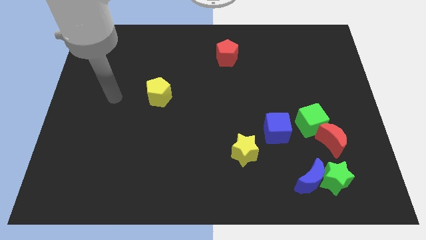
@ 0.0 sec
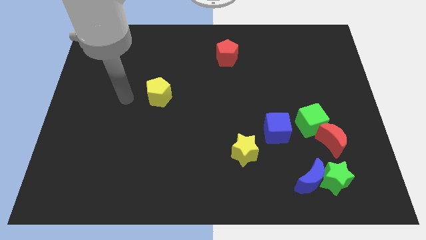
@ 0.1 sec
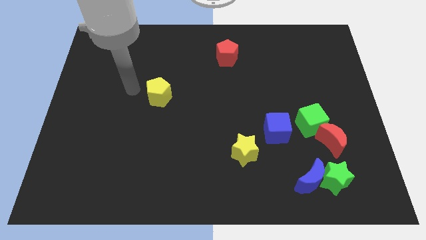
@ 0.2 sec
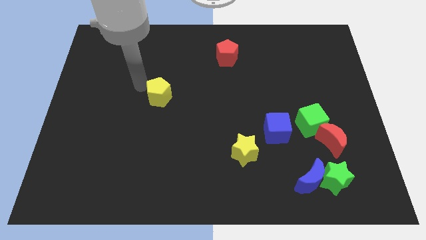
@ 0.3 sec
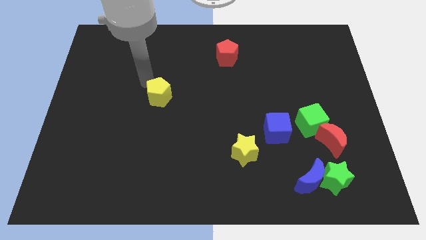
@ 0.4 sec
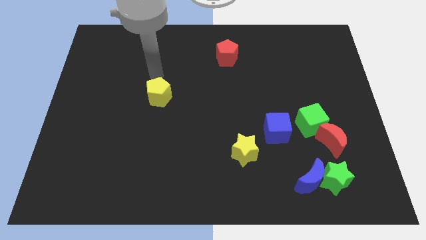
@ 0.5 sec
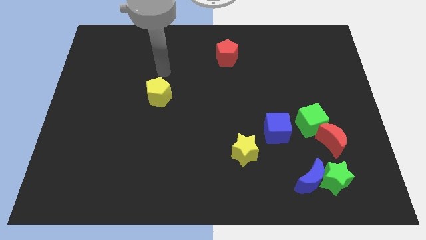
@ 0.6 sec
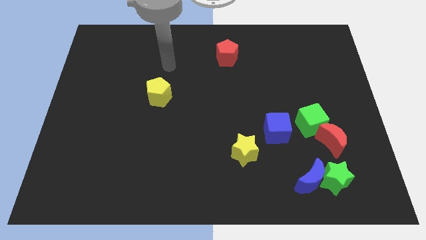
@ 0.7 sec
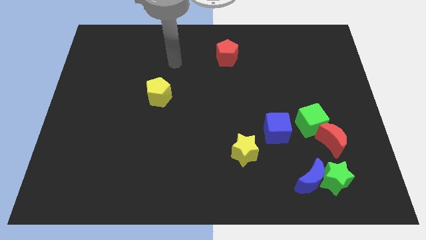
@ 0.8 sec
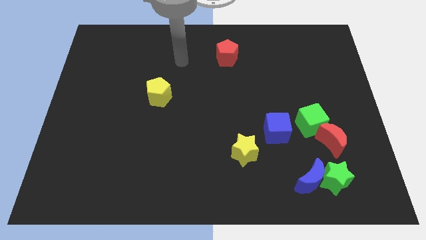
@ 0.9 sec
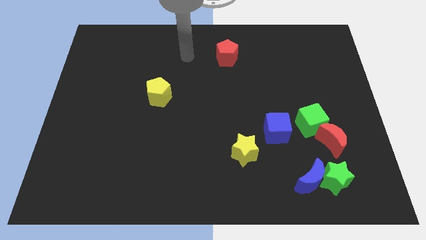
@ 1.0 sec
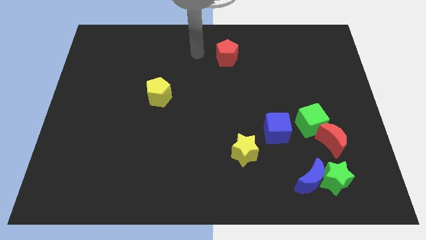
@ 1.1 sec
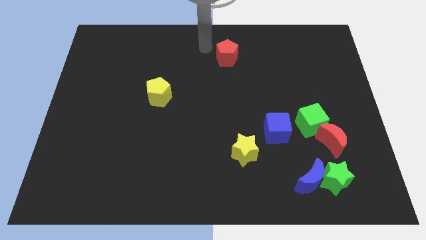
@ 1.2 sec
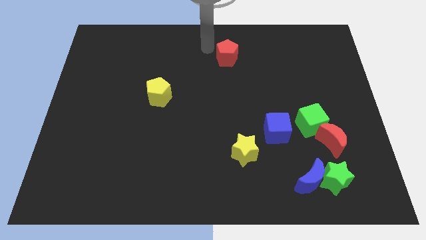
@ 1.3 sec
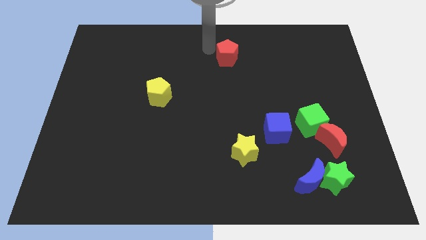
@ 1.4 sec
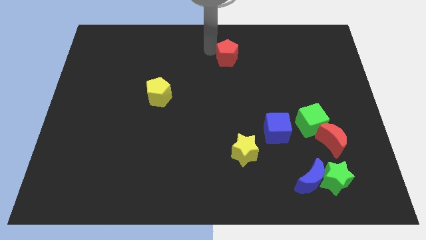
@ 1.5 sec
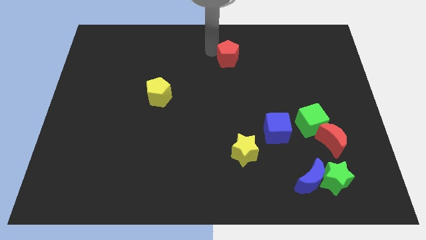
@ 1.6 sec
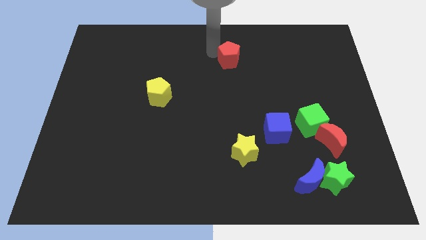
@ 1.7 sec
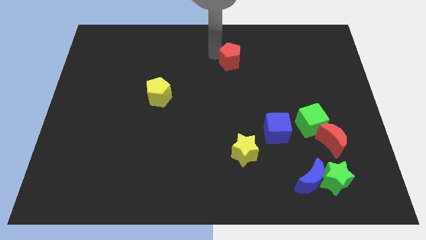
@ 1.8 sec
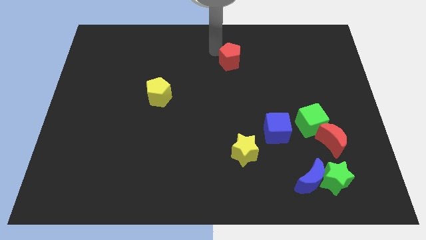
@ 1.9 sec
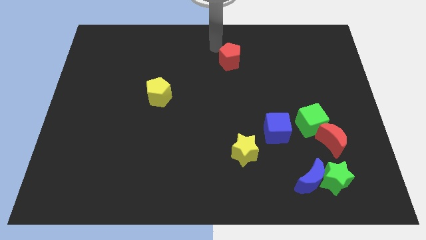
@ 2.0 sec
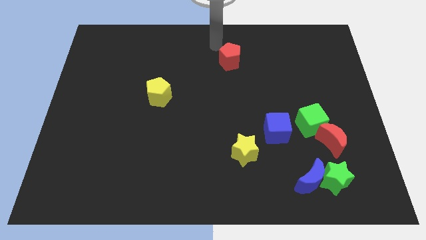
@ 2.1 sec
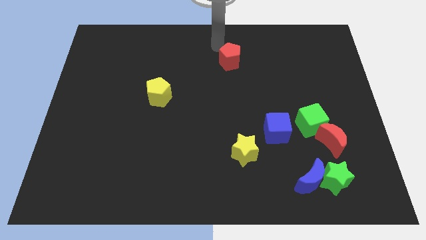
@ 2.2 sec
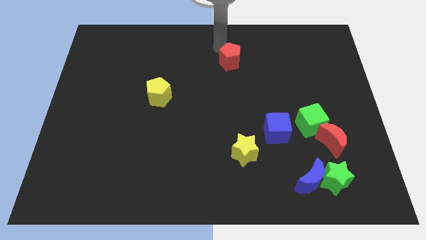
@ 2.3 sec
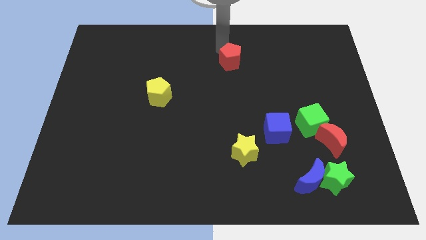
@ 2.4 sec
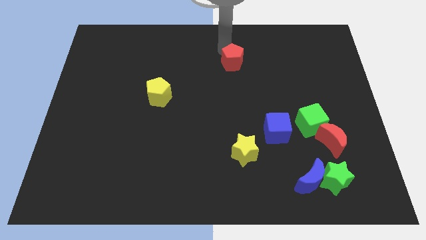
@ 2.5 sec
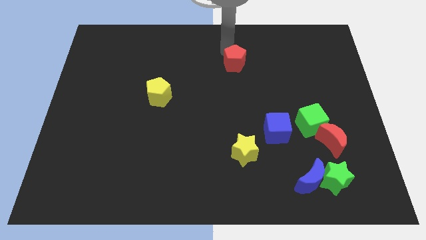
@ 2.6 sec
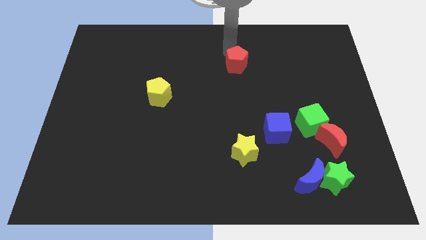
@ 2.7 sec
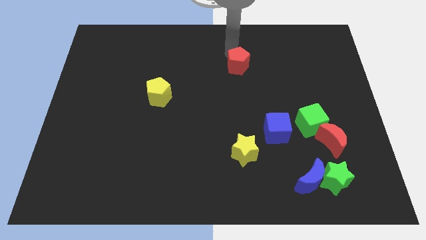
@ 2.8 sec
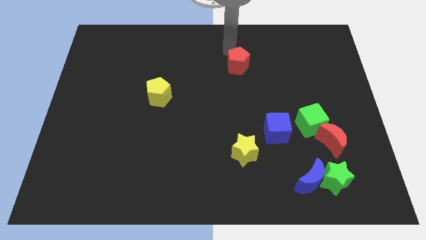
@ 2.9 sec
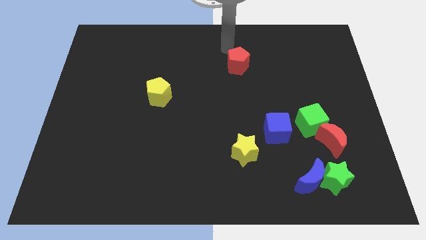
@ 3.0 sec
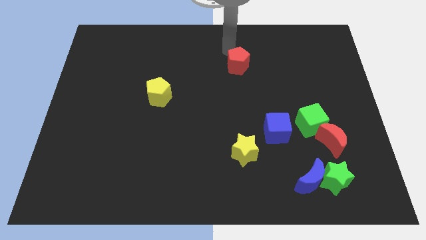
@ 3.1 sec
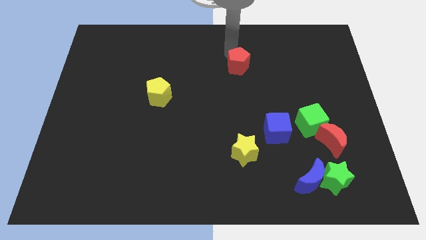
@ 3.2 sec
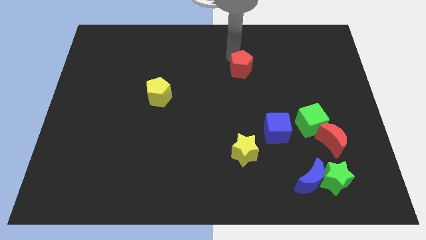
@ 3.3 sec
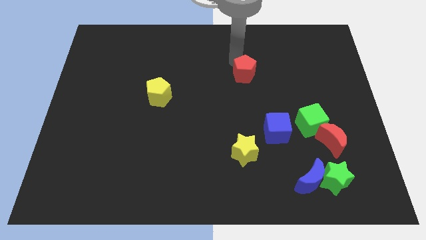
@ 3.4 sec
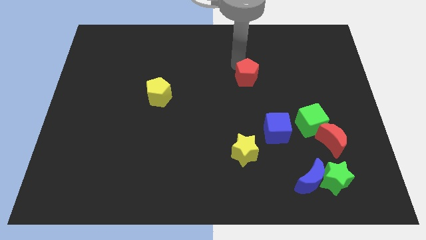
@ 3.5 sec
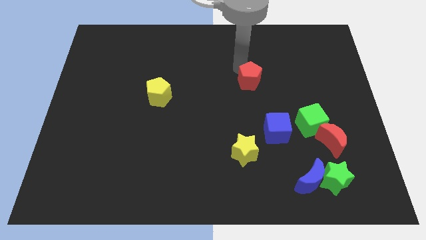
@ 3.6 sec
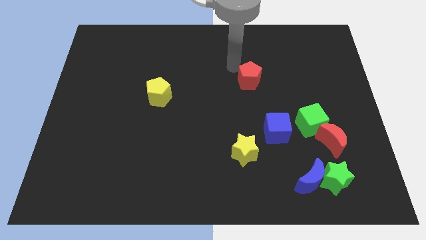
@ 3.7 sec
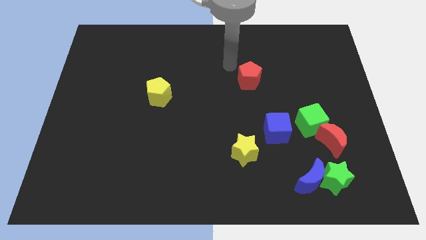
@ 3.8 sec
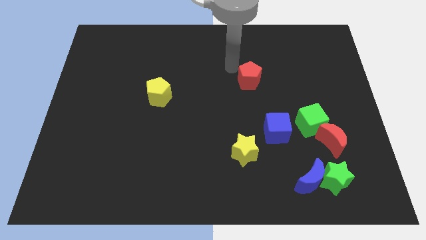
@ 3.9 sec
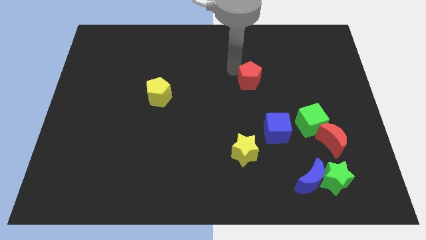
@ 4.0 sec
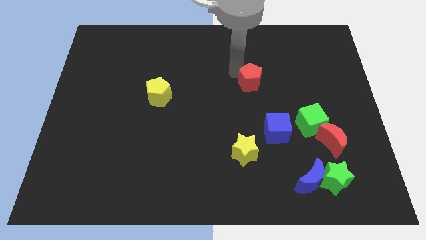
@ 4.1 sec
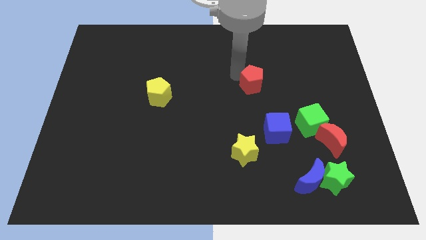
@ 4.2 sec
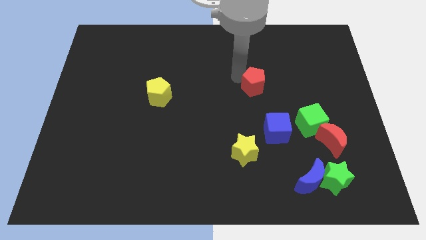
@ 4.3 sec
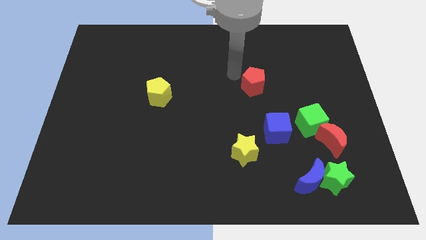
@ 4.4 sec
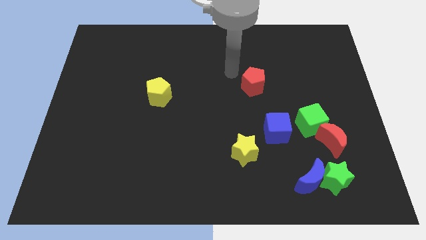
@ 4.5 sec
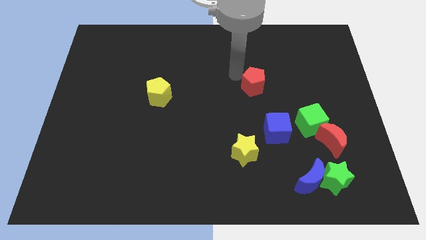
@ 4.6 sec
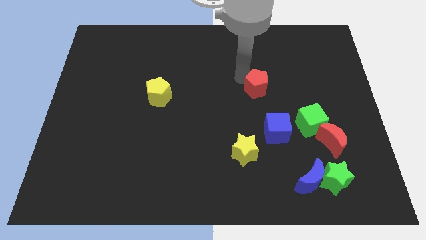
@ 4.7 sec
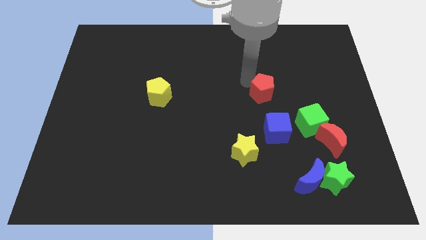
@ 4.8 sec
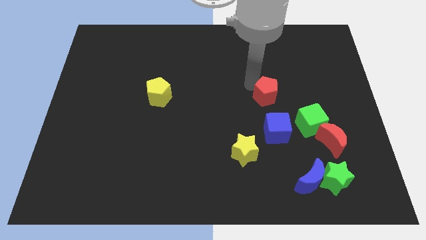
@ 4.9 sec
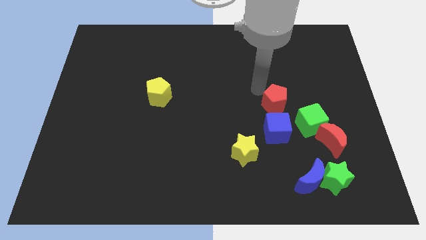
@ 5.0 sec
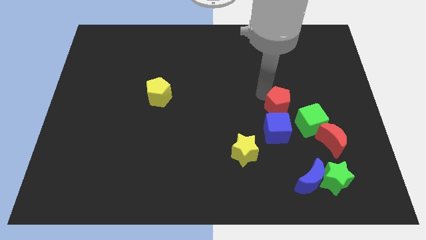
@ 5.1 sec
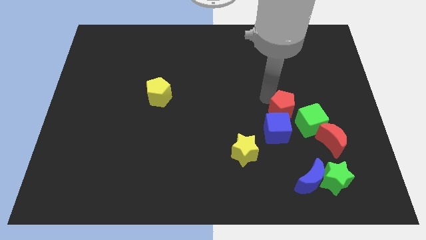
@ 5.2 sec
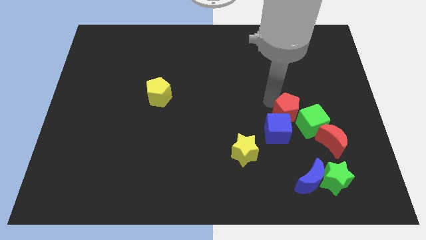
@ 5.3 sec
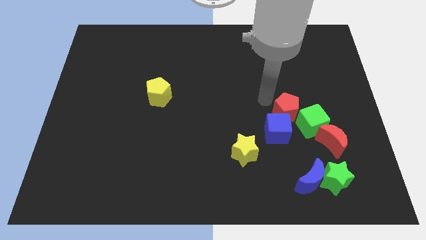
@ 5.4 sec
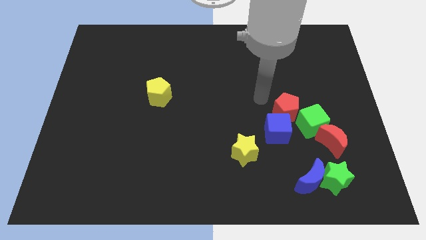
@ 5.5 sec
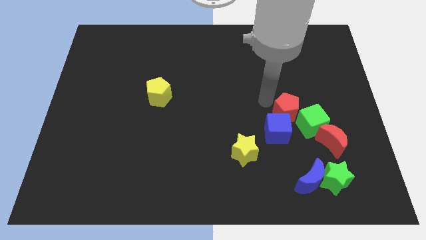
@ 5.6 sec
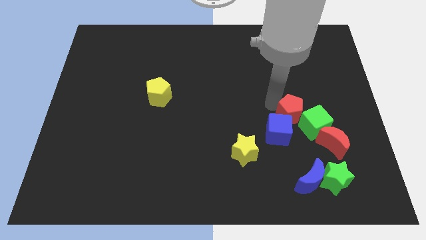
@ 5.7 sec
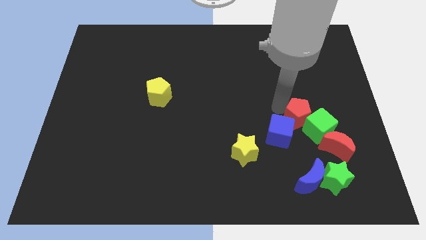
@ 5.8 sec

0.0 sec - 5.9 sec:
slide the red pentagon towards the green cube

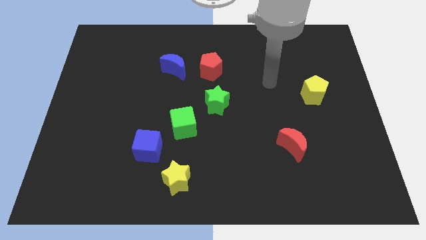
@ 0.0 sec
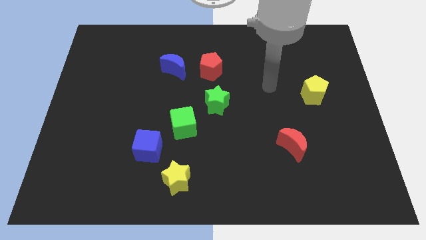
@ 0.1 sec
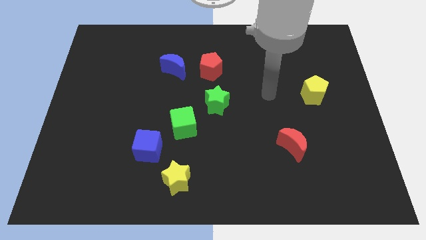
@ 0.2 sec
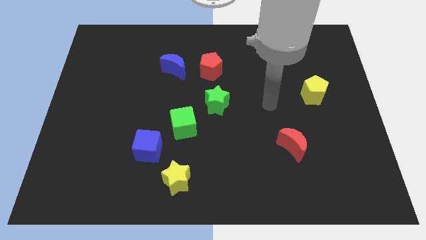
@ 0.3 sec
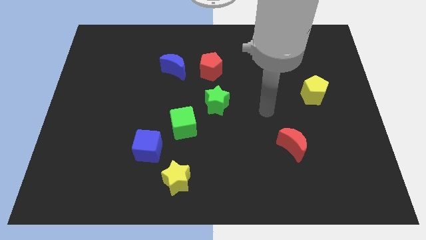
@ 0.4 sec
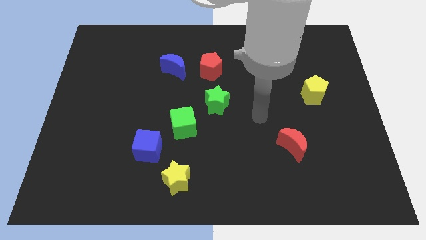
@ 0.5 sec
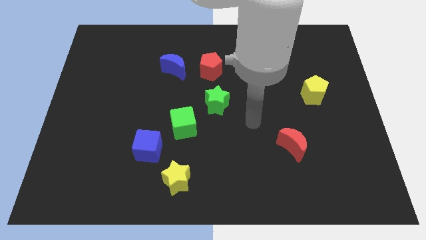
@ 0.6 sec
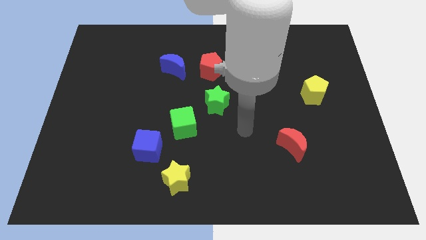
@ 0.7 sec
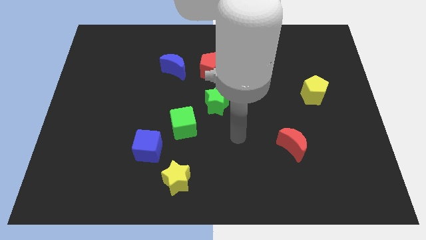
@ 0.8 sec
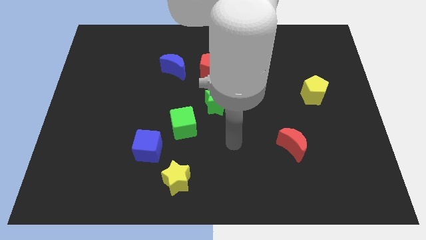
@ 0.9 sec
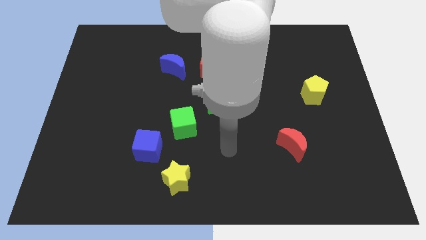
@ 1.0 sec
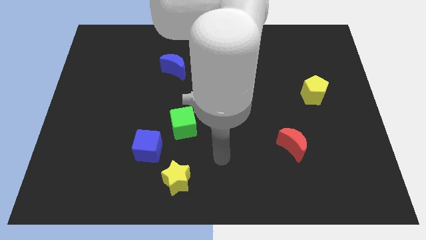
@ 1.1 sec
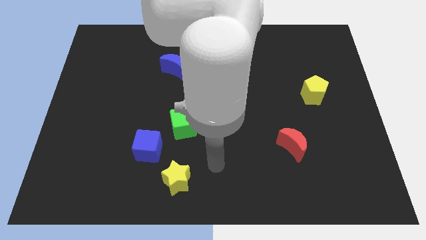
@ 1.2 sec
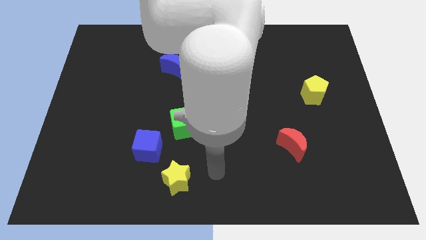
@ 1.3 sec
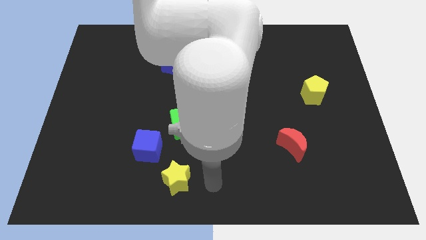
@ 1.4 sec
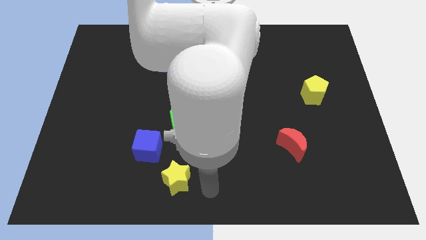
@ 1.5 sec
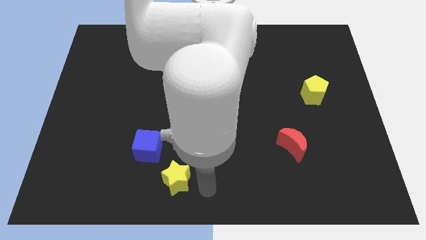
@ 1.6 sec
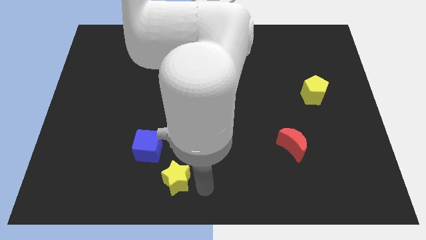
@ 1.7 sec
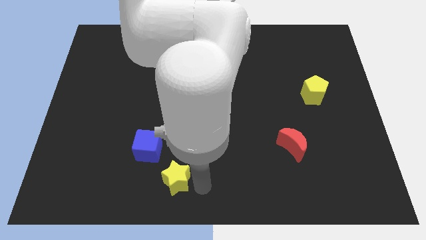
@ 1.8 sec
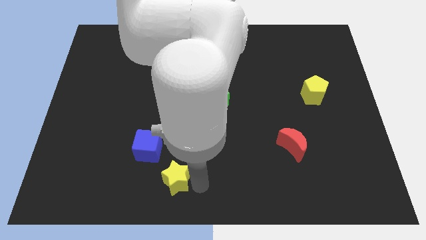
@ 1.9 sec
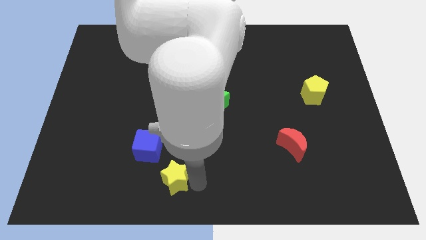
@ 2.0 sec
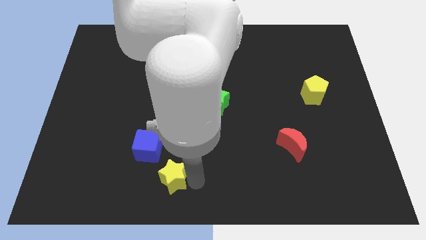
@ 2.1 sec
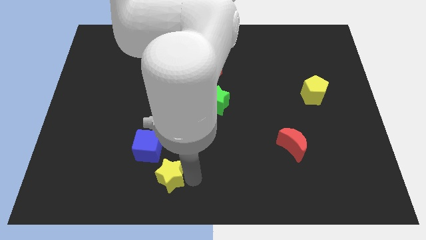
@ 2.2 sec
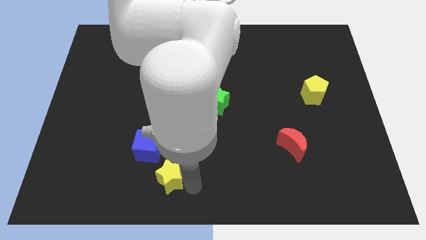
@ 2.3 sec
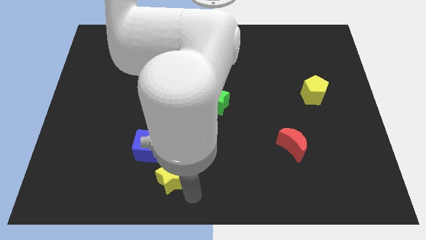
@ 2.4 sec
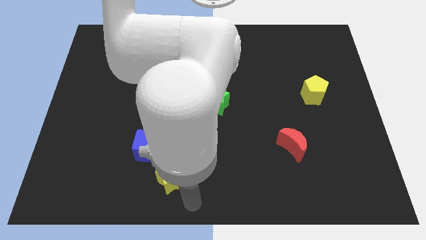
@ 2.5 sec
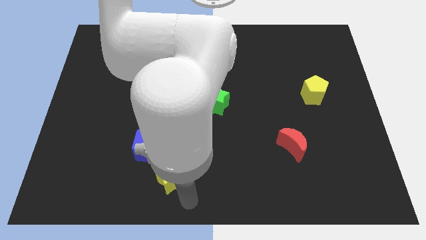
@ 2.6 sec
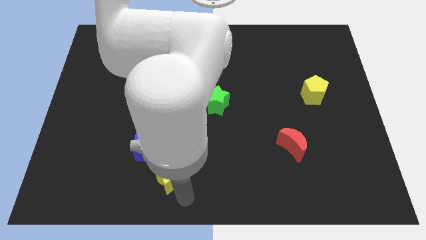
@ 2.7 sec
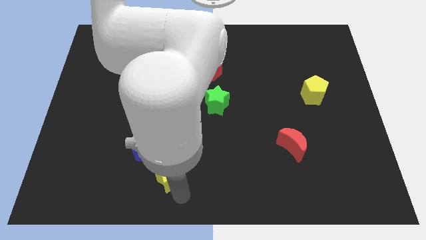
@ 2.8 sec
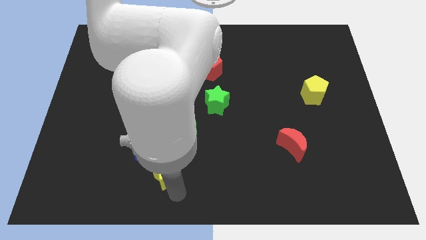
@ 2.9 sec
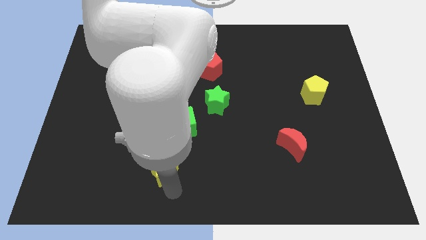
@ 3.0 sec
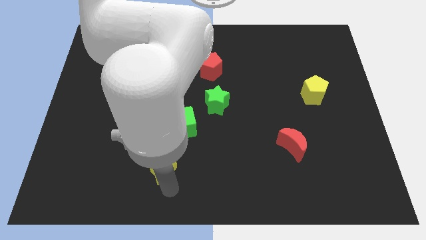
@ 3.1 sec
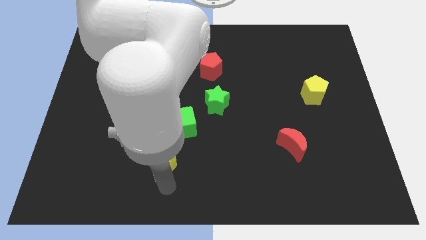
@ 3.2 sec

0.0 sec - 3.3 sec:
put the yellow star close to the blue cube
